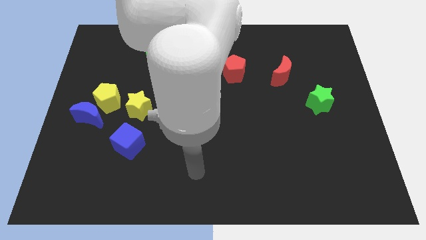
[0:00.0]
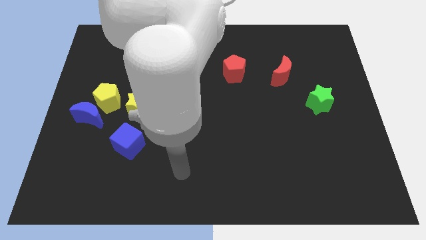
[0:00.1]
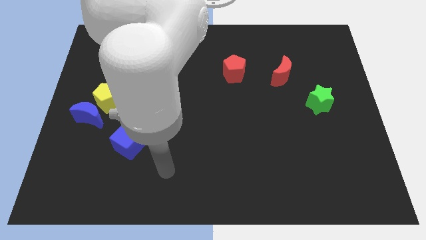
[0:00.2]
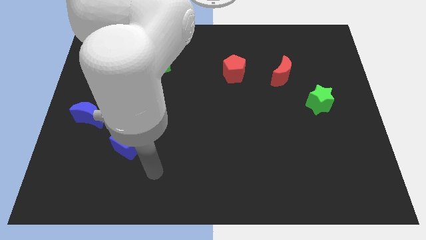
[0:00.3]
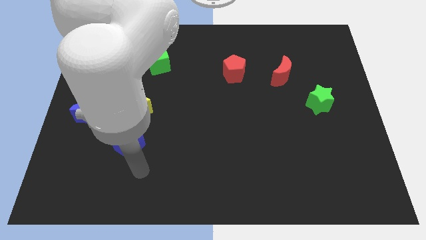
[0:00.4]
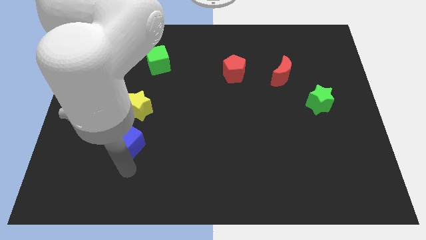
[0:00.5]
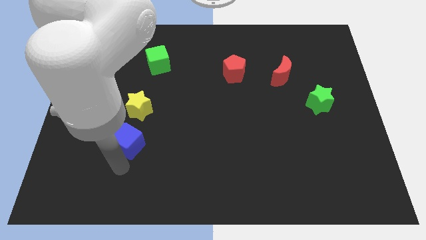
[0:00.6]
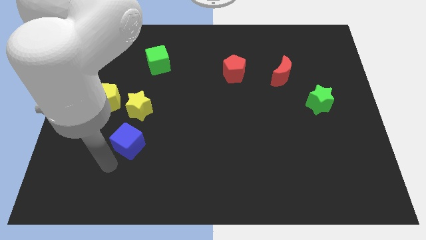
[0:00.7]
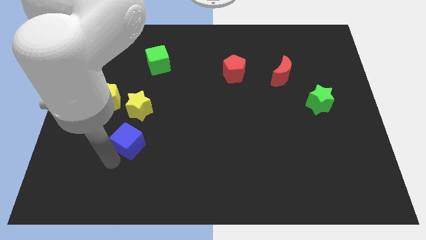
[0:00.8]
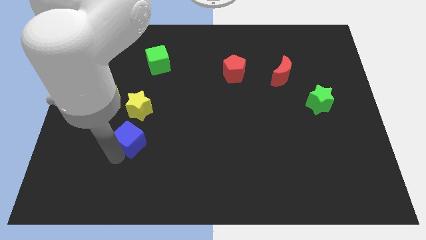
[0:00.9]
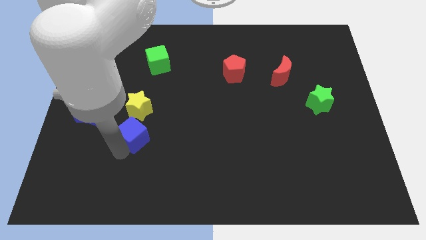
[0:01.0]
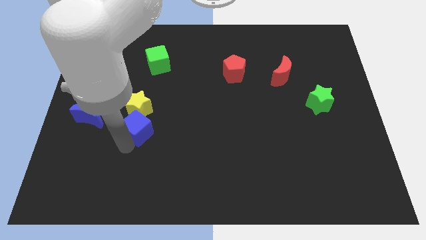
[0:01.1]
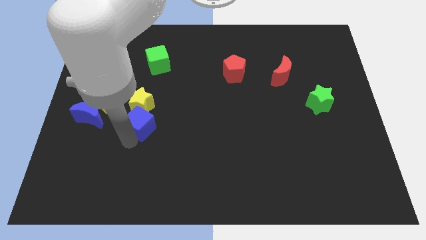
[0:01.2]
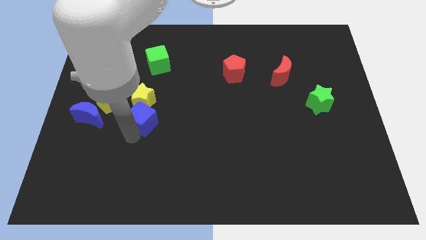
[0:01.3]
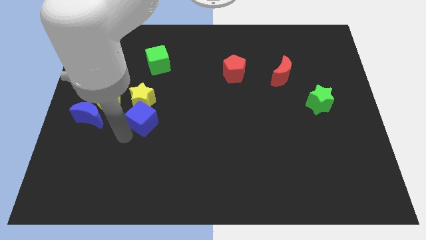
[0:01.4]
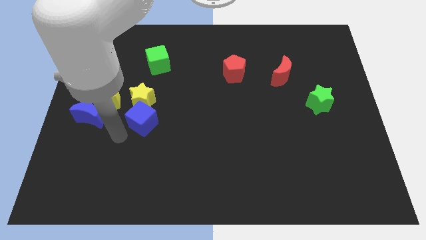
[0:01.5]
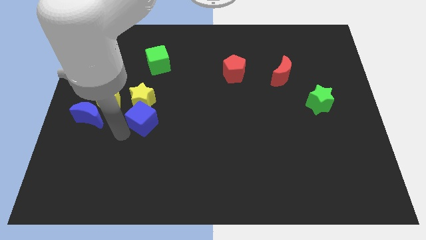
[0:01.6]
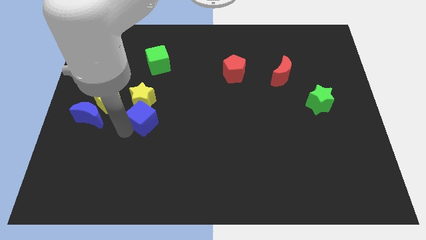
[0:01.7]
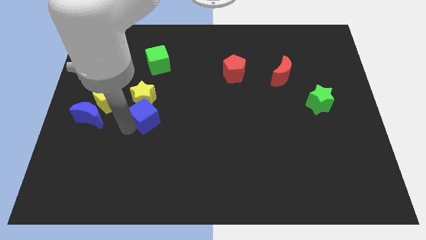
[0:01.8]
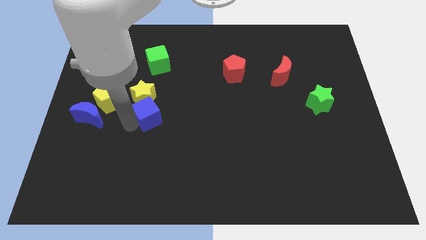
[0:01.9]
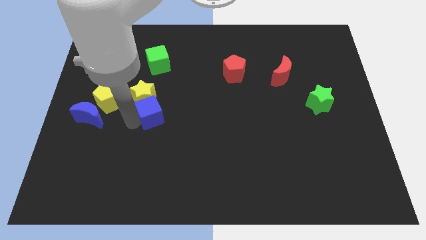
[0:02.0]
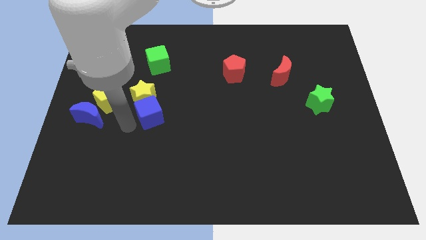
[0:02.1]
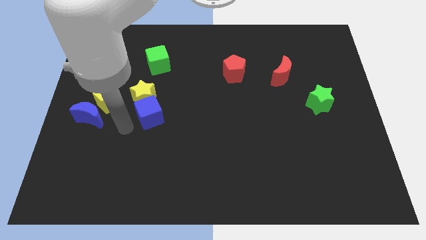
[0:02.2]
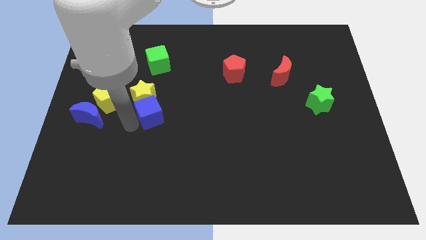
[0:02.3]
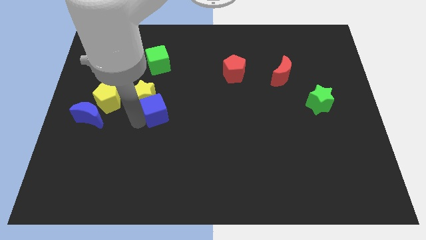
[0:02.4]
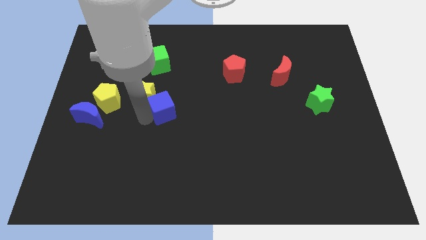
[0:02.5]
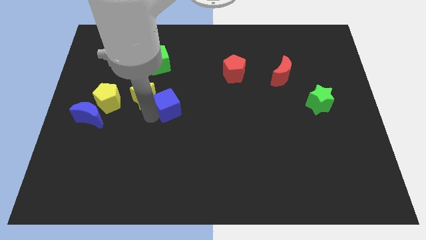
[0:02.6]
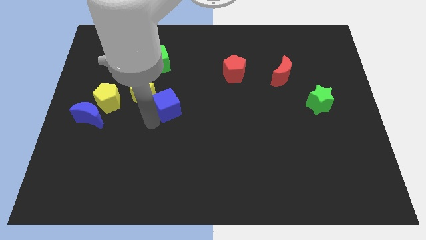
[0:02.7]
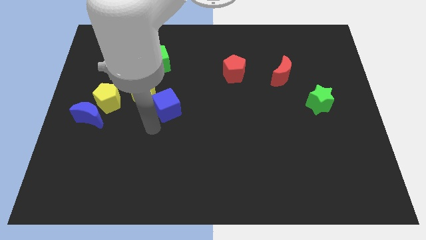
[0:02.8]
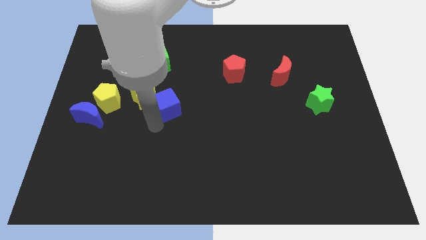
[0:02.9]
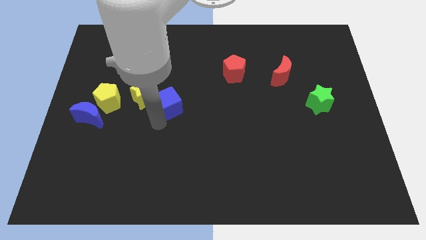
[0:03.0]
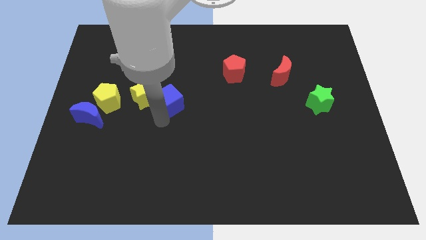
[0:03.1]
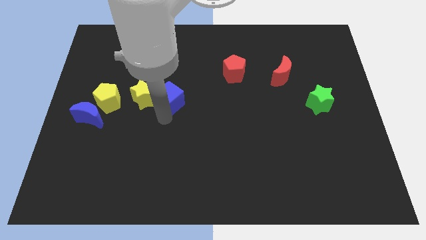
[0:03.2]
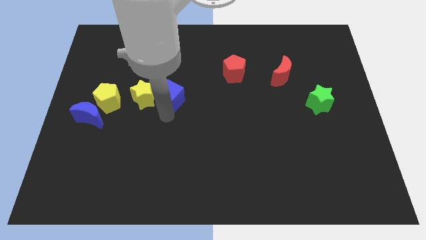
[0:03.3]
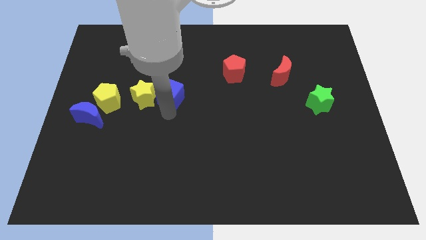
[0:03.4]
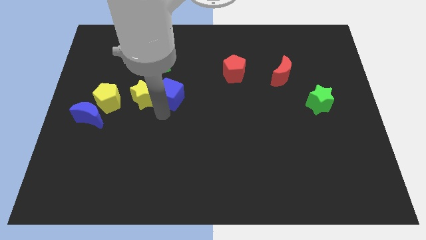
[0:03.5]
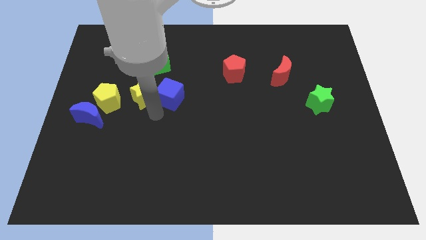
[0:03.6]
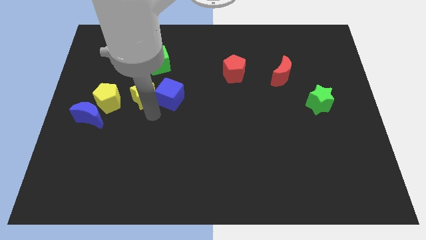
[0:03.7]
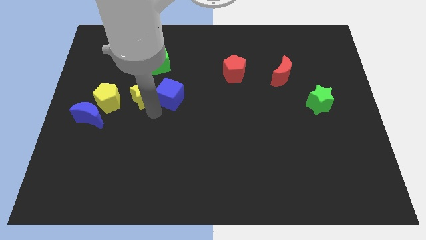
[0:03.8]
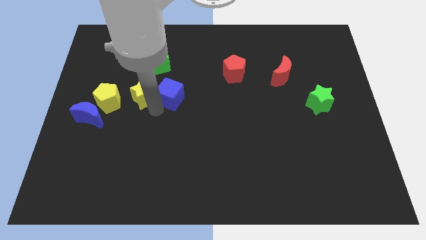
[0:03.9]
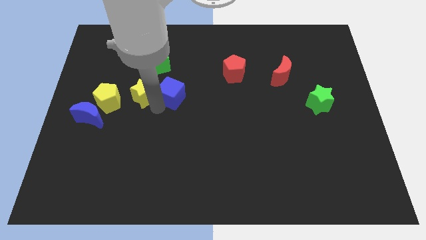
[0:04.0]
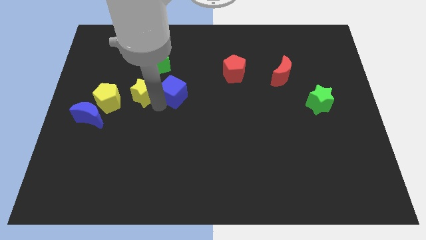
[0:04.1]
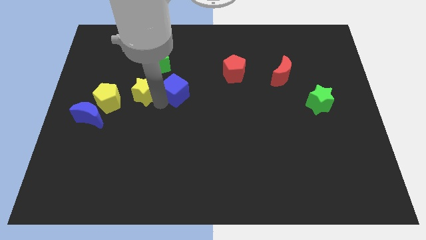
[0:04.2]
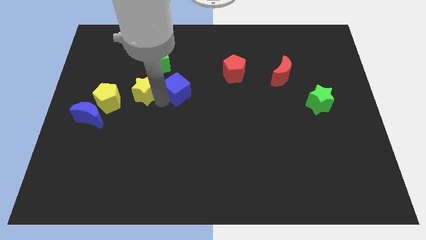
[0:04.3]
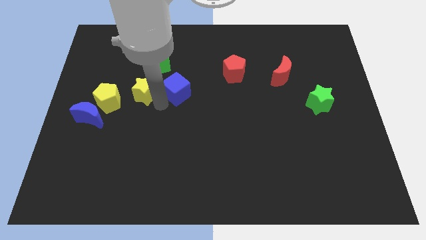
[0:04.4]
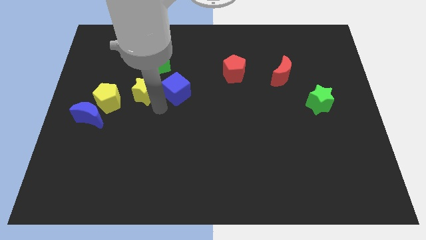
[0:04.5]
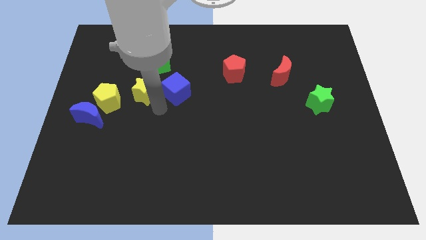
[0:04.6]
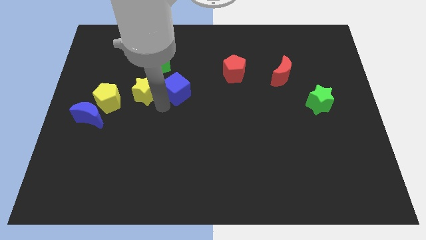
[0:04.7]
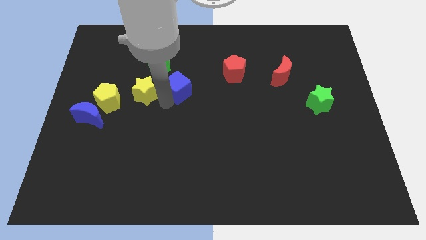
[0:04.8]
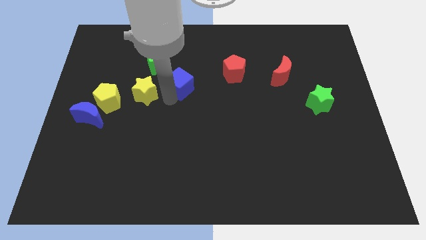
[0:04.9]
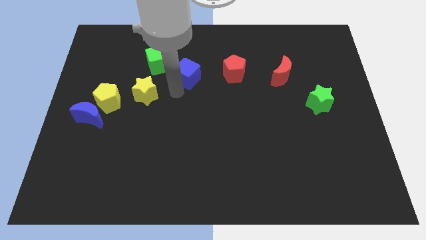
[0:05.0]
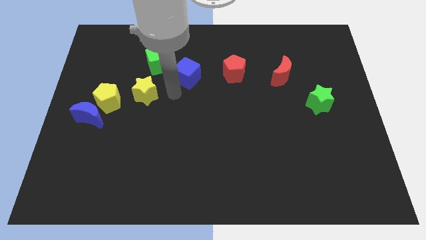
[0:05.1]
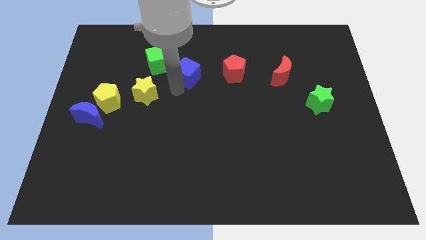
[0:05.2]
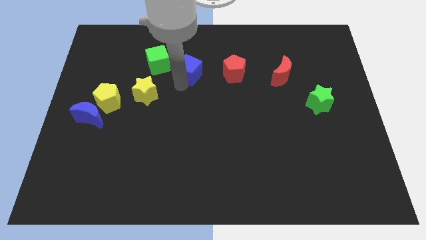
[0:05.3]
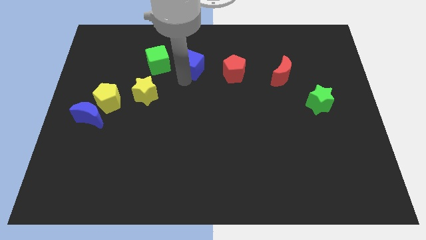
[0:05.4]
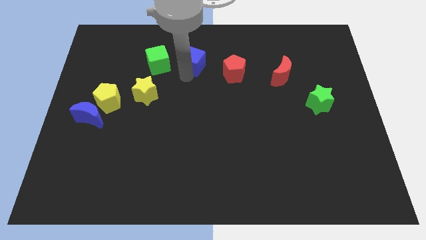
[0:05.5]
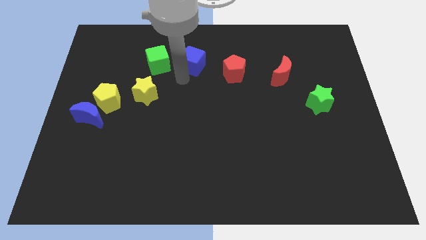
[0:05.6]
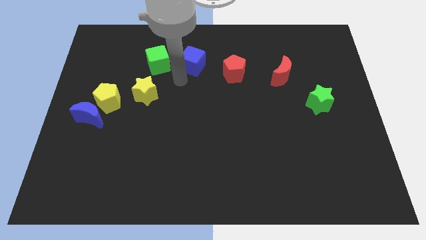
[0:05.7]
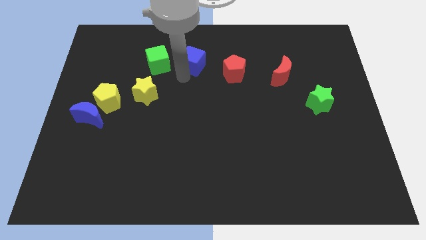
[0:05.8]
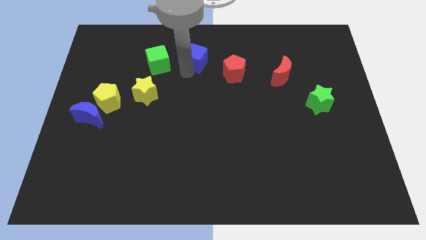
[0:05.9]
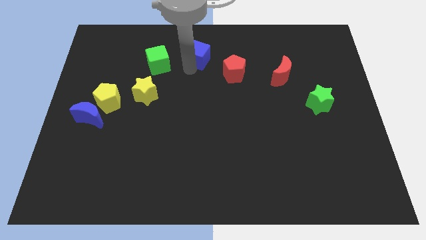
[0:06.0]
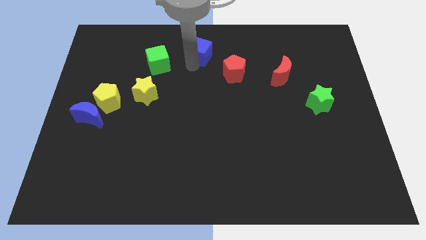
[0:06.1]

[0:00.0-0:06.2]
move the blue cube to the top side

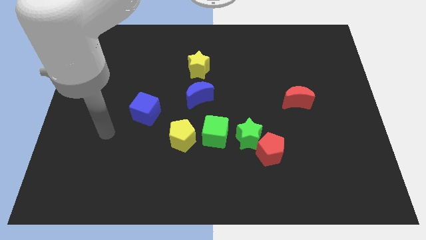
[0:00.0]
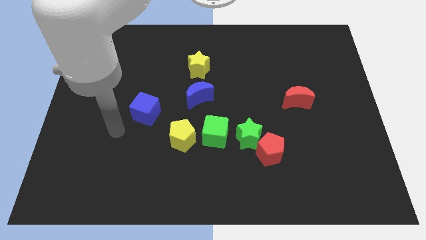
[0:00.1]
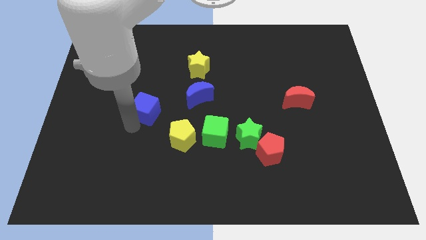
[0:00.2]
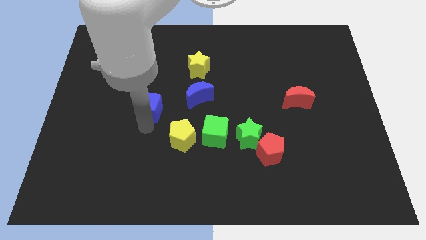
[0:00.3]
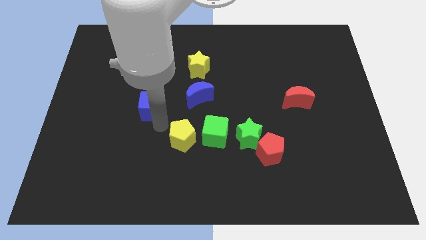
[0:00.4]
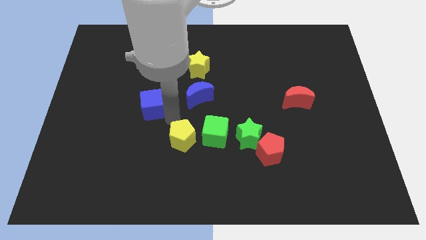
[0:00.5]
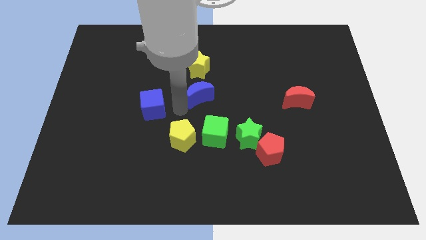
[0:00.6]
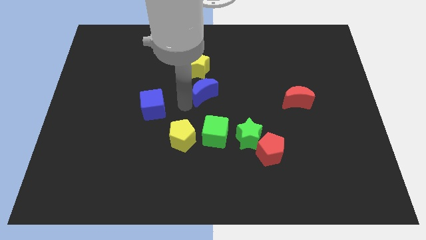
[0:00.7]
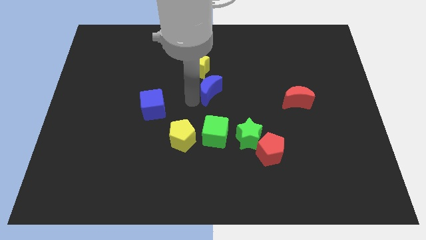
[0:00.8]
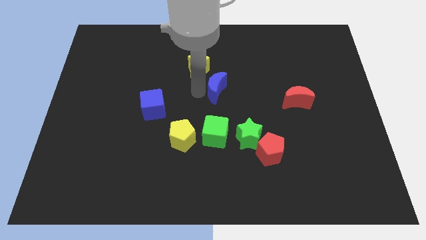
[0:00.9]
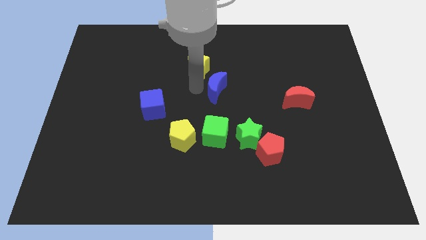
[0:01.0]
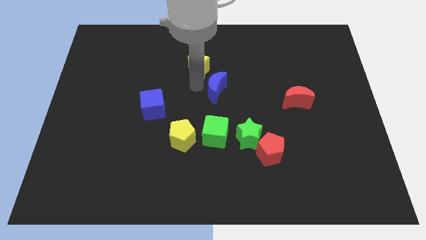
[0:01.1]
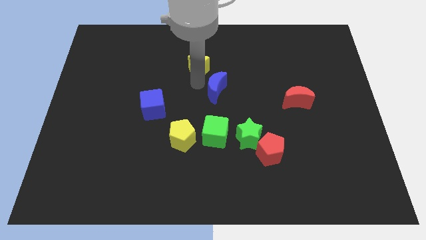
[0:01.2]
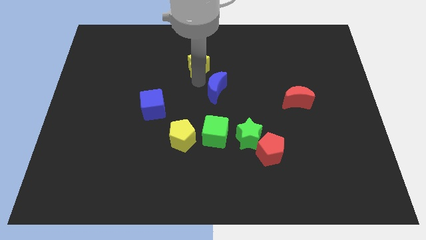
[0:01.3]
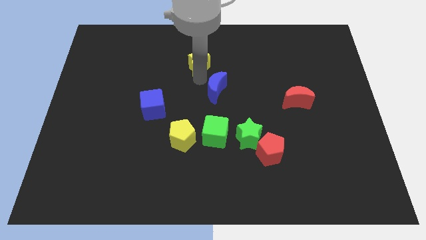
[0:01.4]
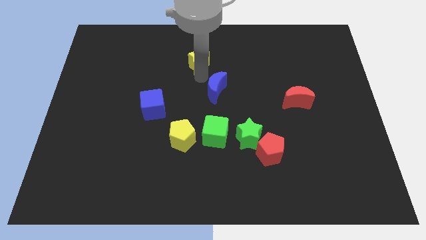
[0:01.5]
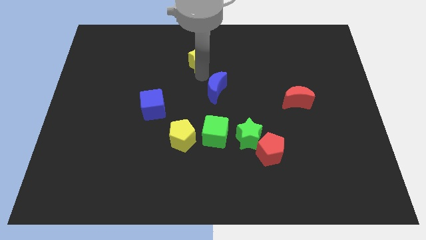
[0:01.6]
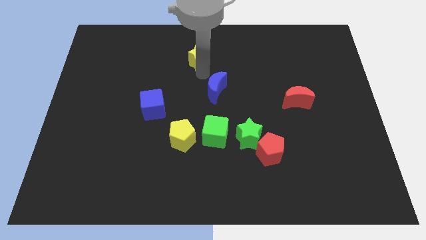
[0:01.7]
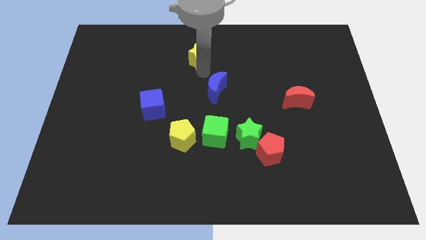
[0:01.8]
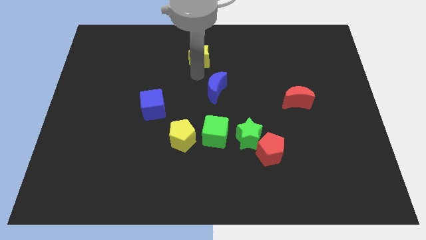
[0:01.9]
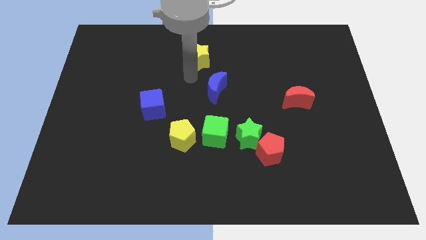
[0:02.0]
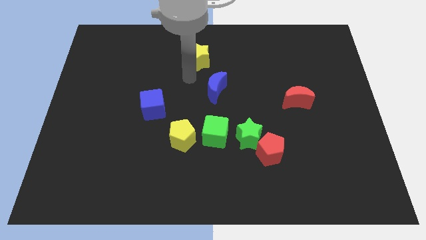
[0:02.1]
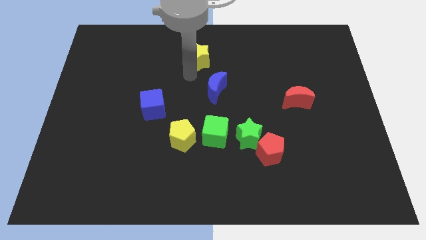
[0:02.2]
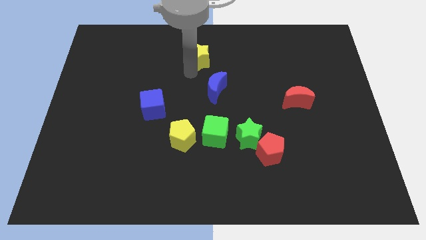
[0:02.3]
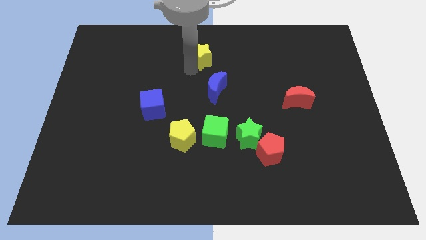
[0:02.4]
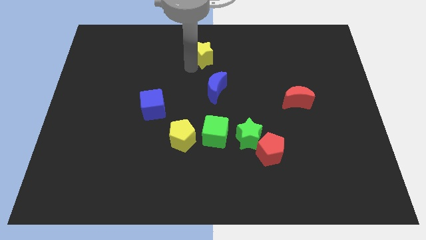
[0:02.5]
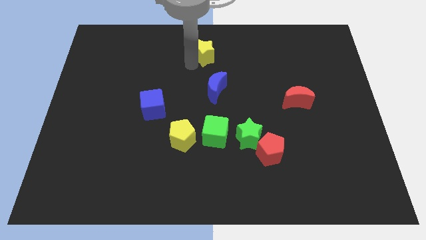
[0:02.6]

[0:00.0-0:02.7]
push the yellow star to the towards your base
